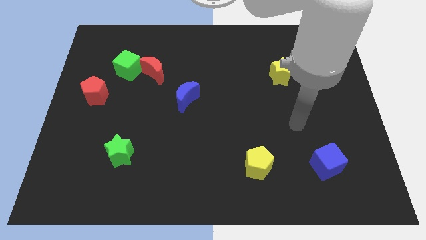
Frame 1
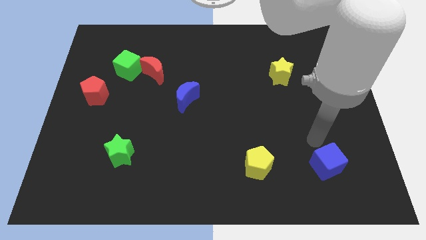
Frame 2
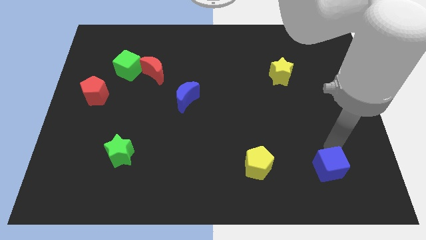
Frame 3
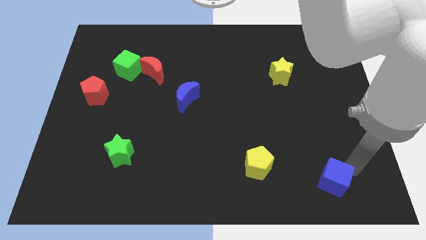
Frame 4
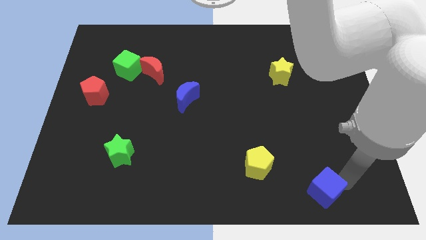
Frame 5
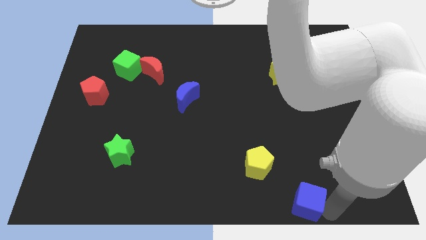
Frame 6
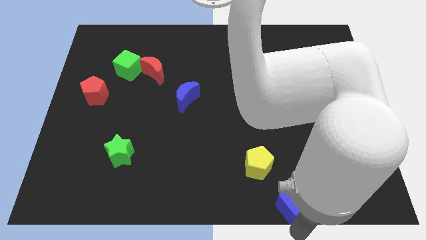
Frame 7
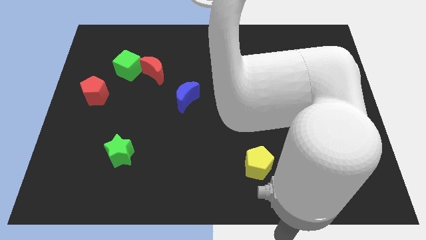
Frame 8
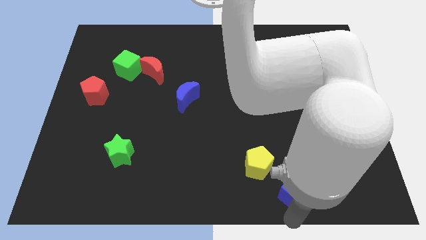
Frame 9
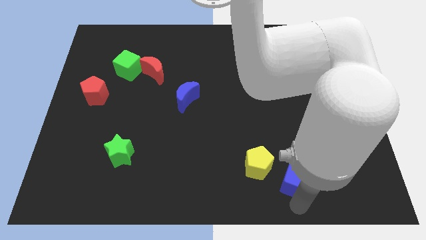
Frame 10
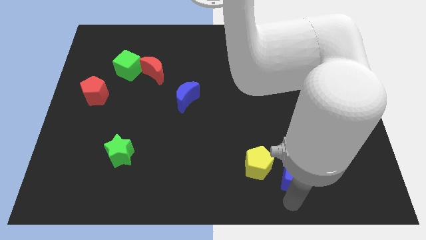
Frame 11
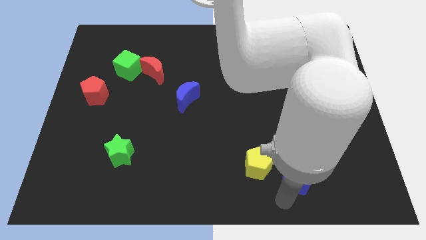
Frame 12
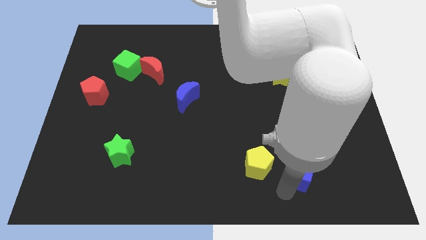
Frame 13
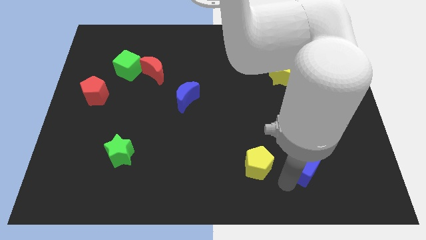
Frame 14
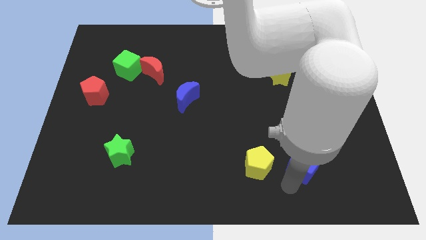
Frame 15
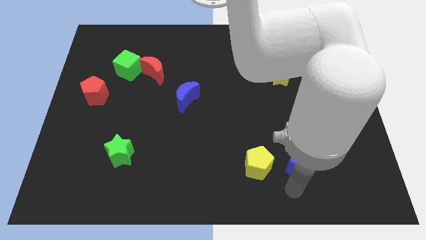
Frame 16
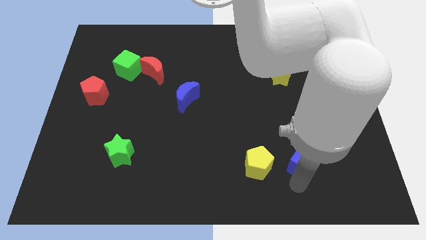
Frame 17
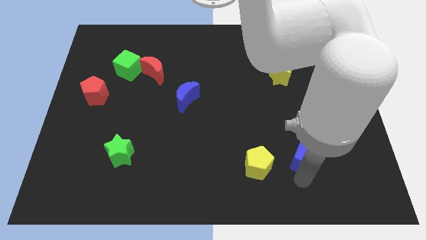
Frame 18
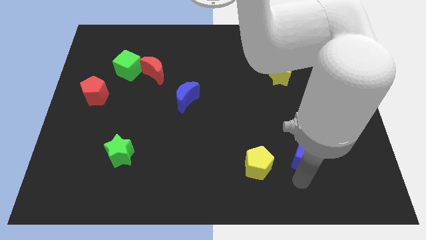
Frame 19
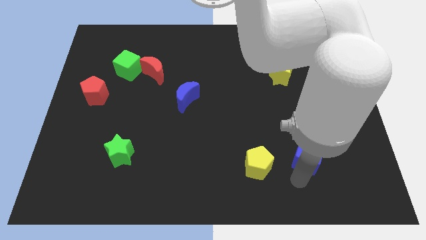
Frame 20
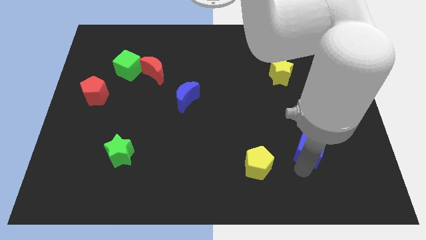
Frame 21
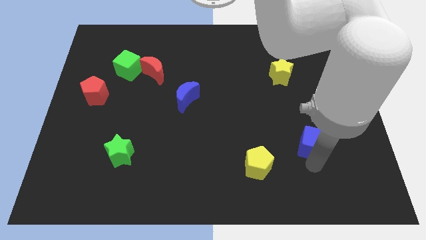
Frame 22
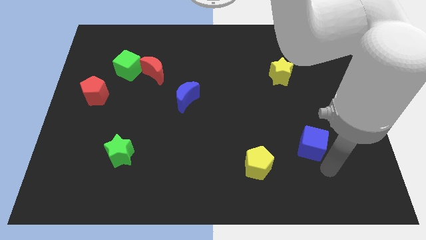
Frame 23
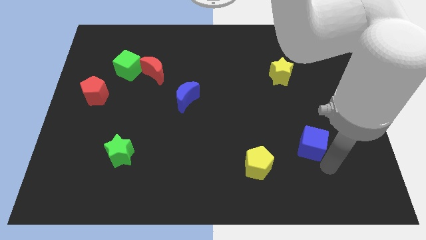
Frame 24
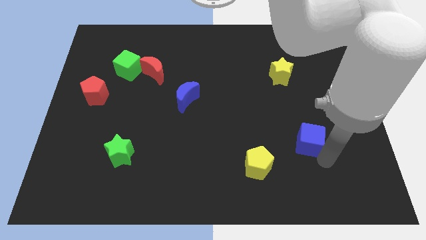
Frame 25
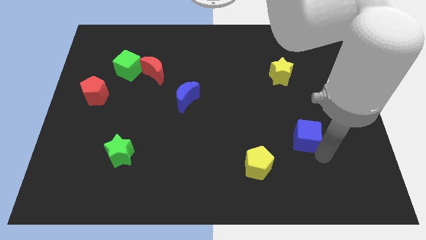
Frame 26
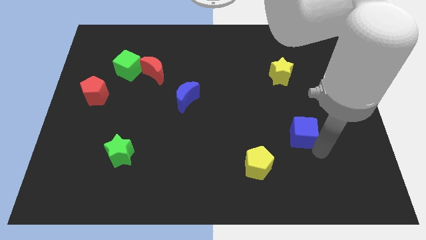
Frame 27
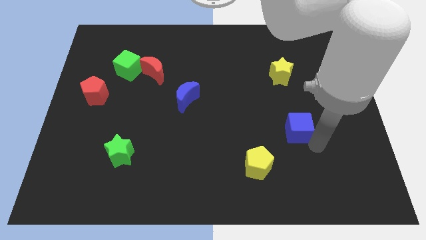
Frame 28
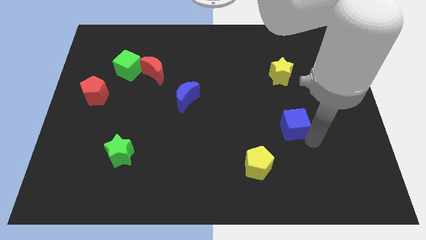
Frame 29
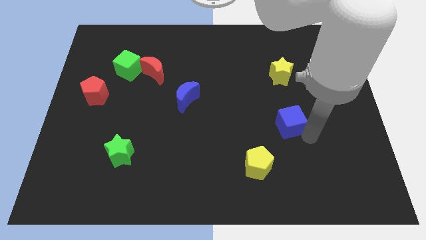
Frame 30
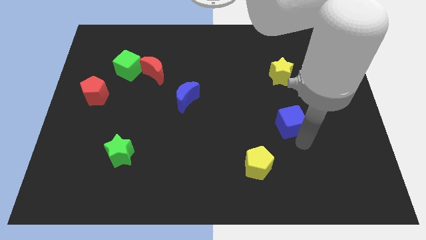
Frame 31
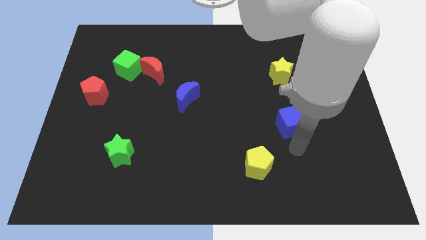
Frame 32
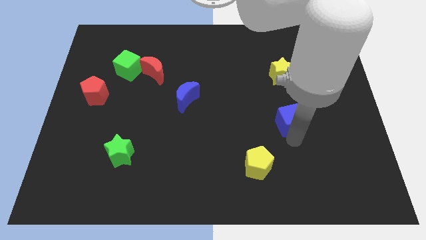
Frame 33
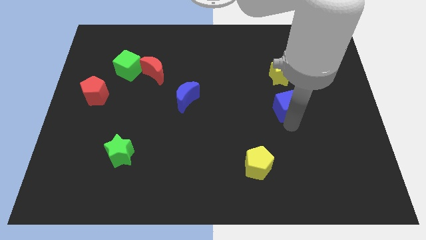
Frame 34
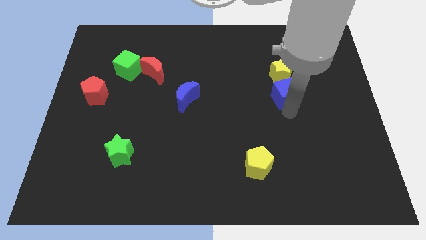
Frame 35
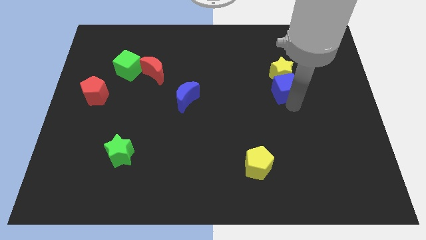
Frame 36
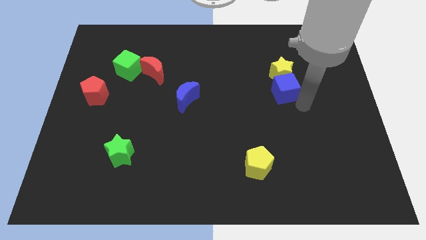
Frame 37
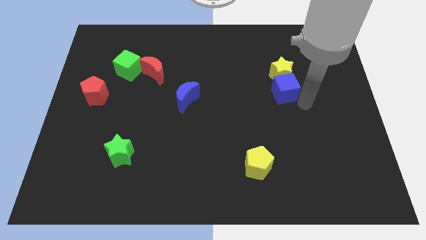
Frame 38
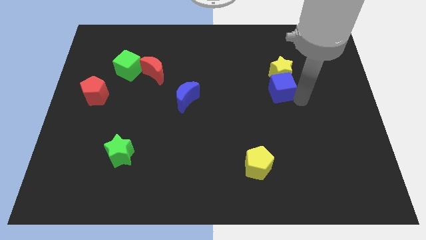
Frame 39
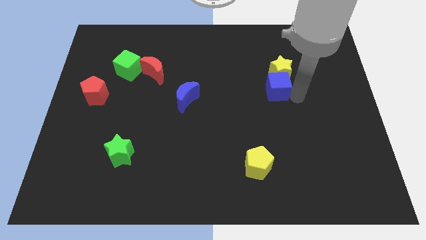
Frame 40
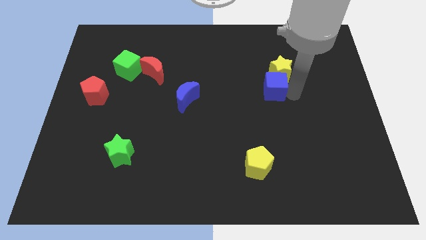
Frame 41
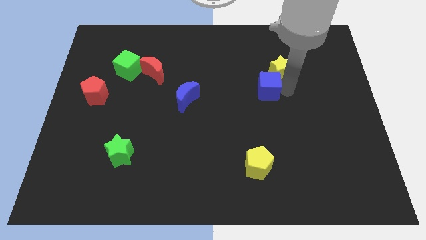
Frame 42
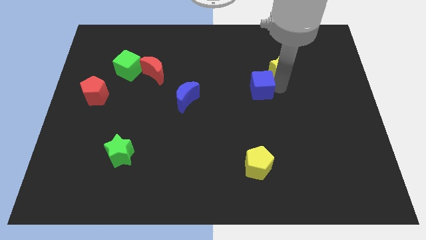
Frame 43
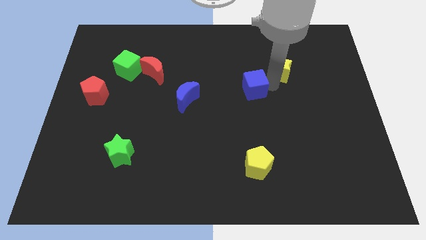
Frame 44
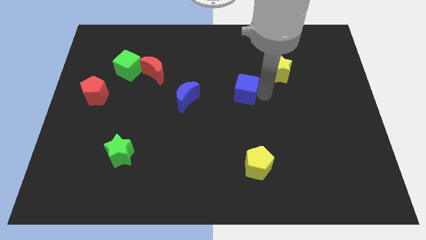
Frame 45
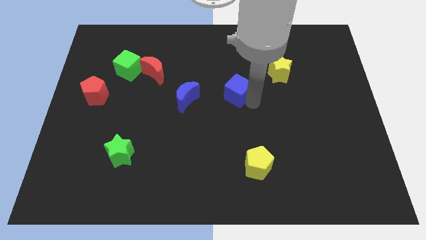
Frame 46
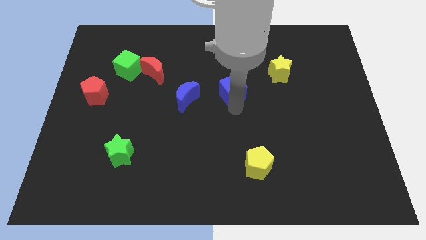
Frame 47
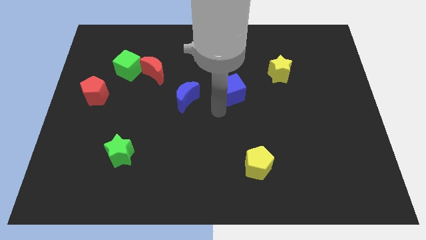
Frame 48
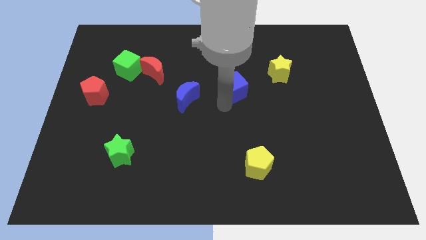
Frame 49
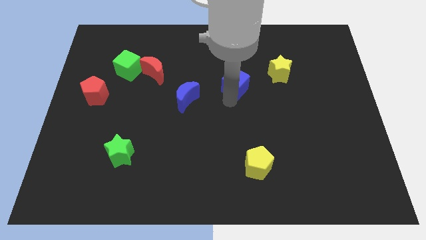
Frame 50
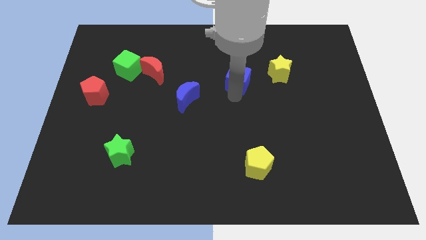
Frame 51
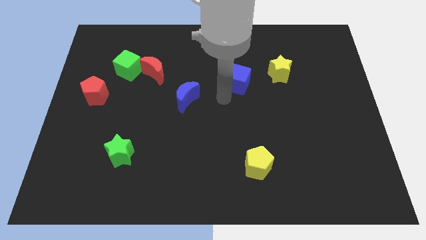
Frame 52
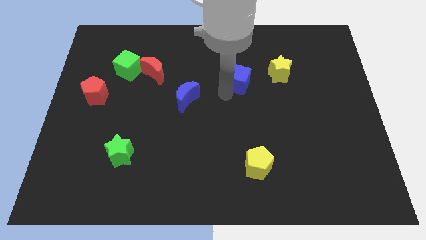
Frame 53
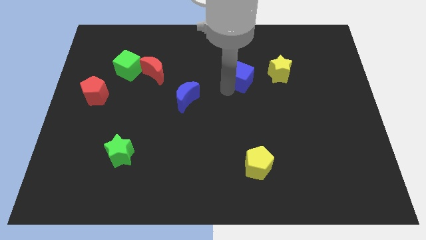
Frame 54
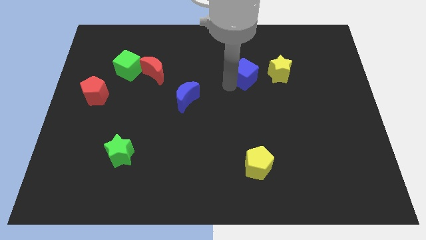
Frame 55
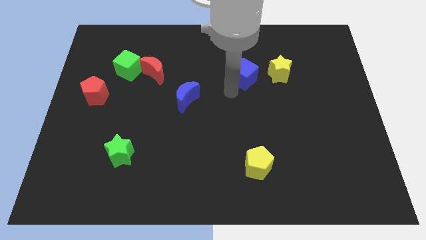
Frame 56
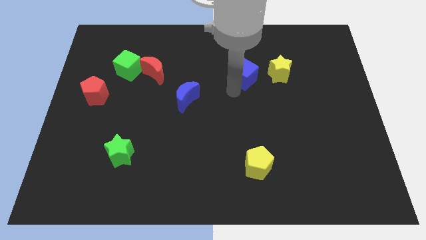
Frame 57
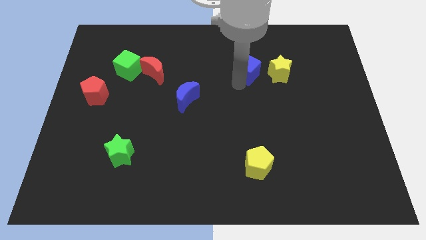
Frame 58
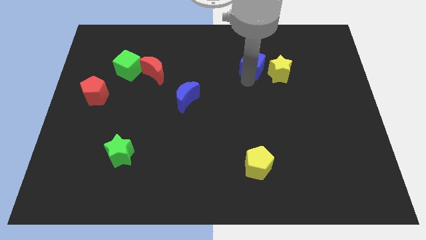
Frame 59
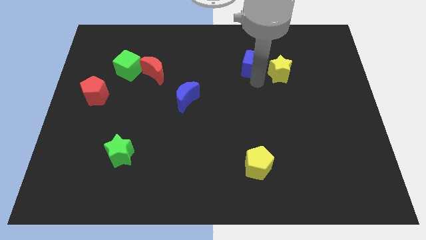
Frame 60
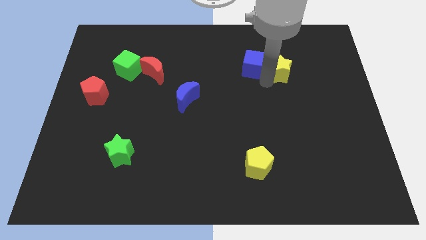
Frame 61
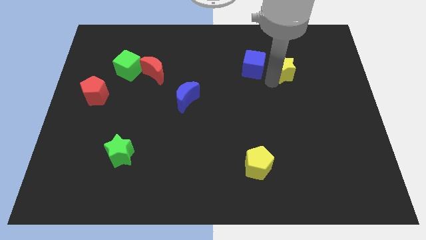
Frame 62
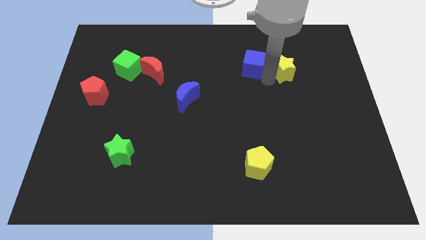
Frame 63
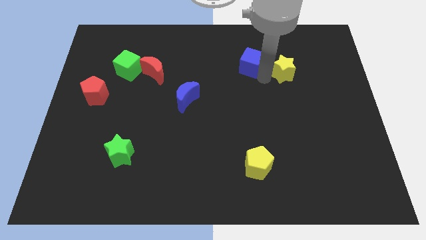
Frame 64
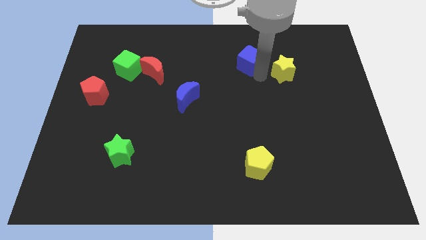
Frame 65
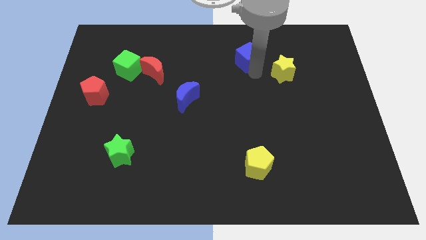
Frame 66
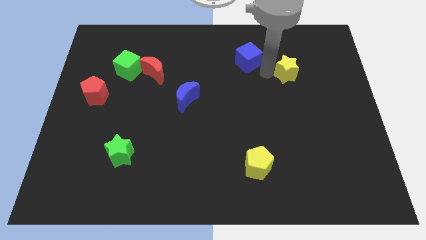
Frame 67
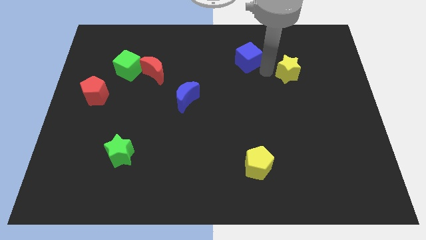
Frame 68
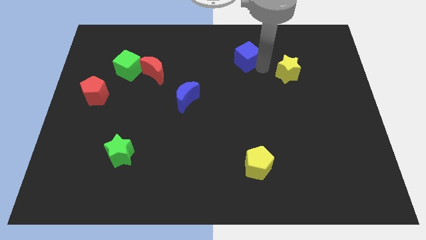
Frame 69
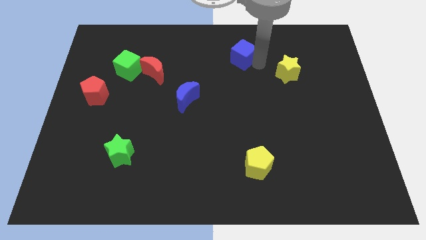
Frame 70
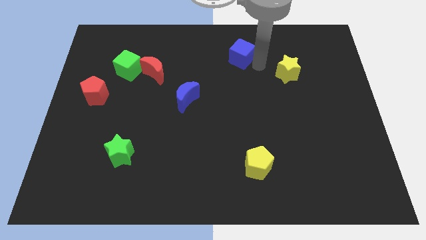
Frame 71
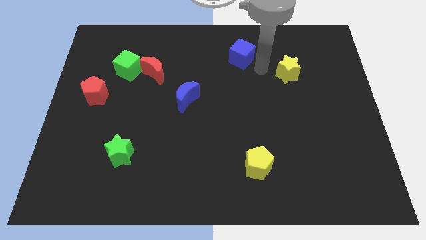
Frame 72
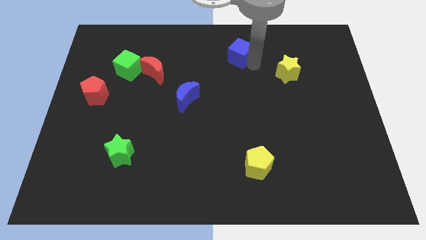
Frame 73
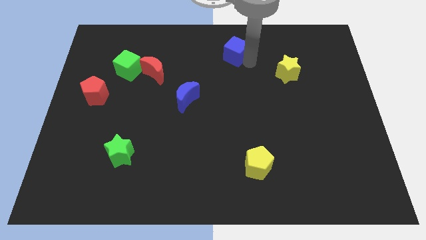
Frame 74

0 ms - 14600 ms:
move the blue cube to the top
